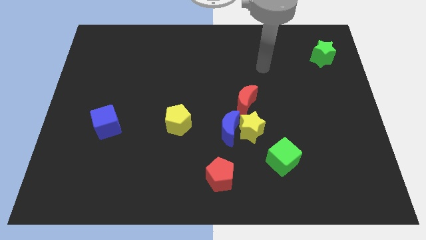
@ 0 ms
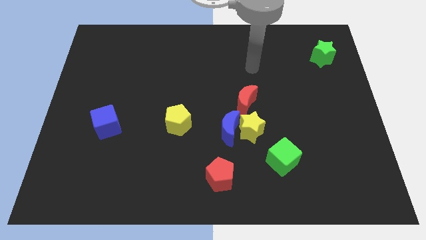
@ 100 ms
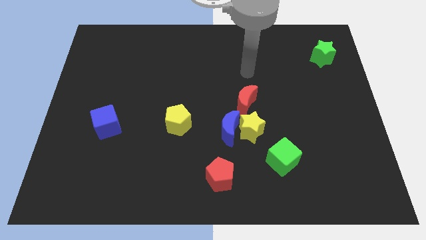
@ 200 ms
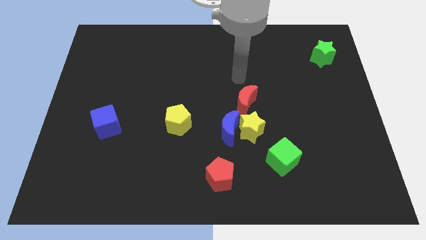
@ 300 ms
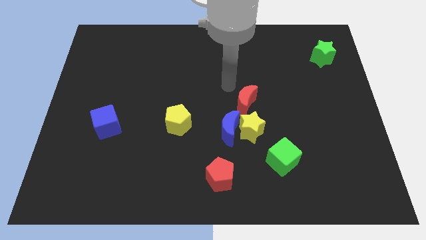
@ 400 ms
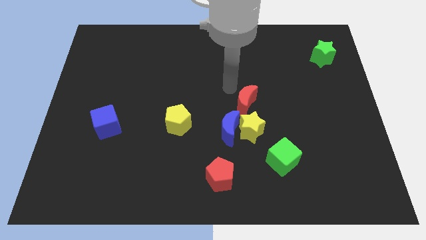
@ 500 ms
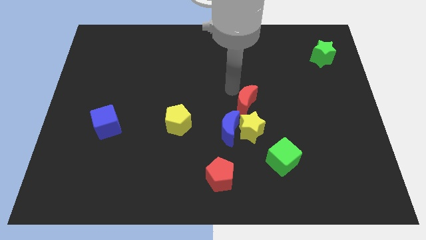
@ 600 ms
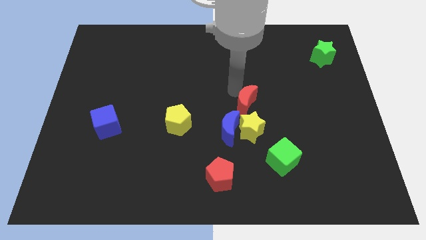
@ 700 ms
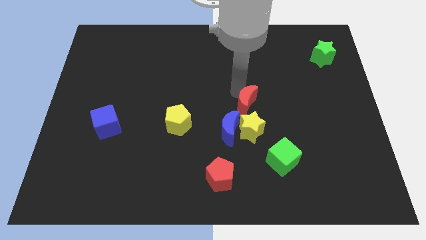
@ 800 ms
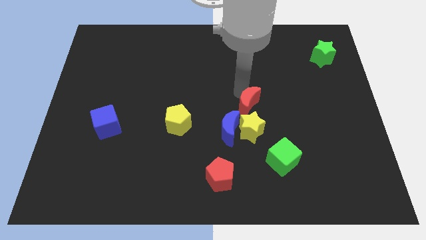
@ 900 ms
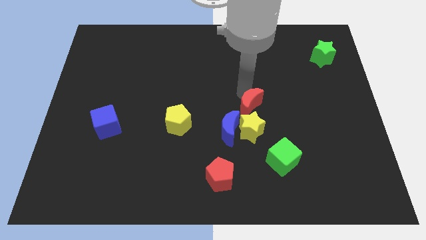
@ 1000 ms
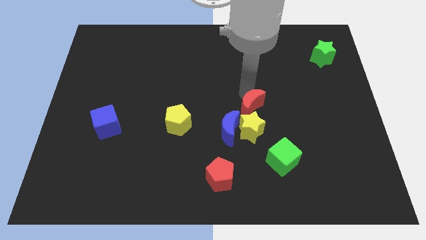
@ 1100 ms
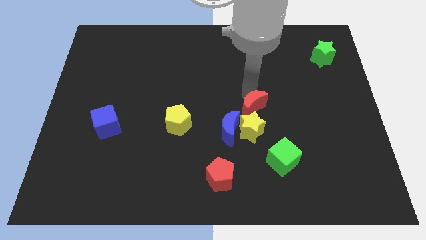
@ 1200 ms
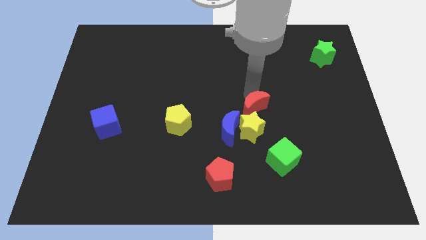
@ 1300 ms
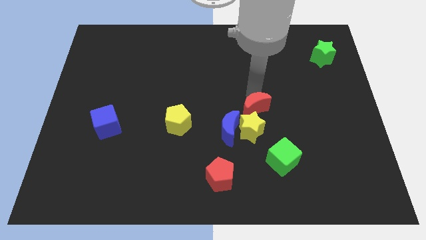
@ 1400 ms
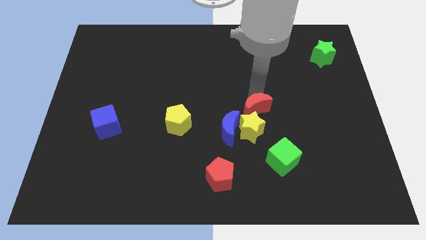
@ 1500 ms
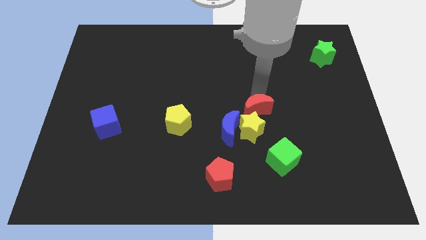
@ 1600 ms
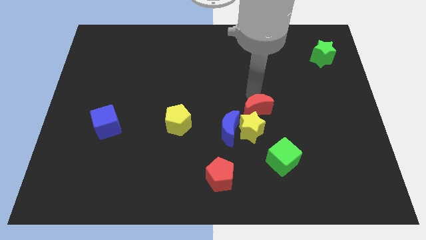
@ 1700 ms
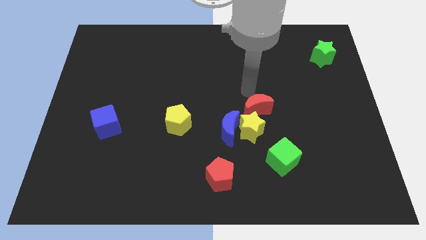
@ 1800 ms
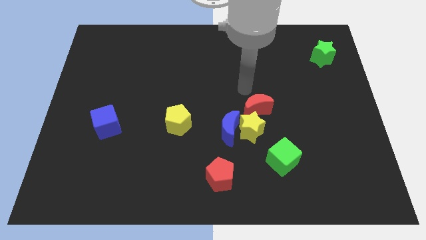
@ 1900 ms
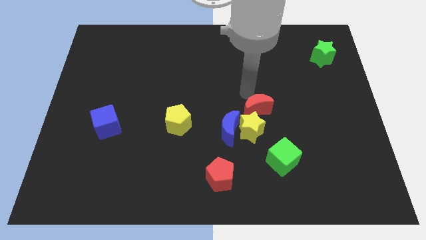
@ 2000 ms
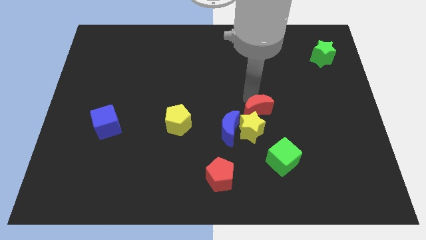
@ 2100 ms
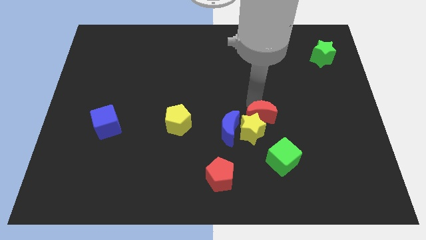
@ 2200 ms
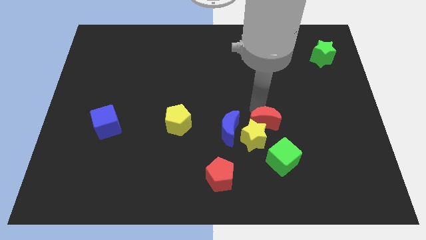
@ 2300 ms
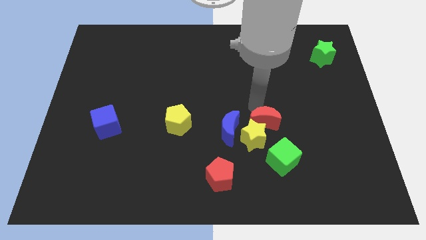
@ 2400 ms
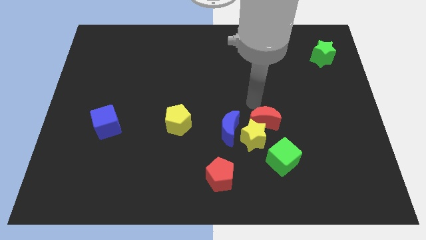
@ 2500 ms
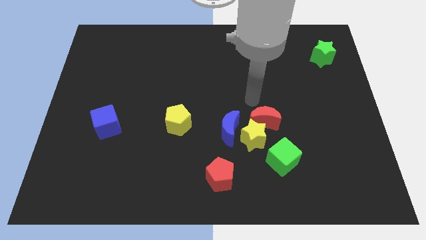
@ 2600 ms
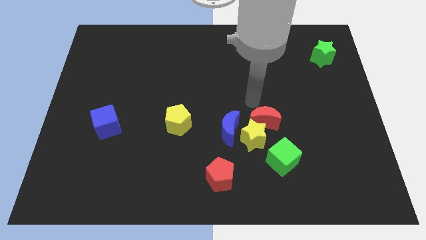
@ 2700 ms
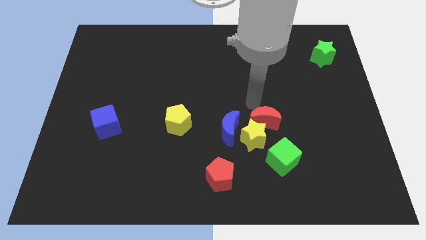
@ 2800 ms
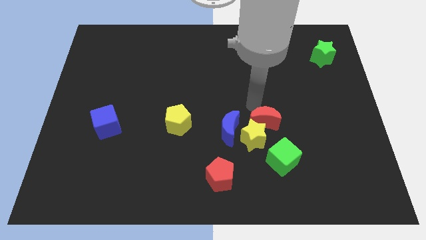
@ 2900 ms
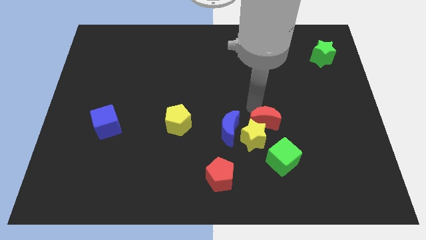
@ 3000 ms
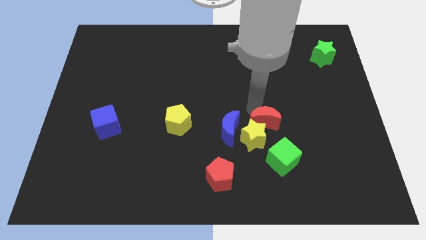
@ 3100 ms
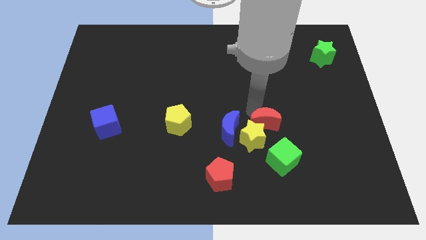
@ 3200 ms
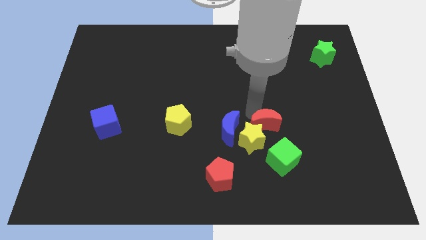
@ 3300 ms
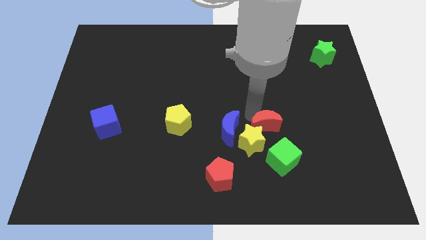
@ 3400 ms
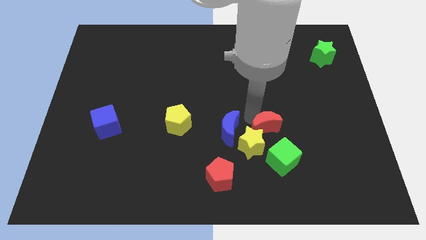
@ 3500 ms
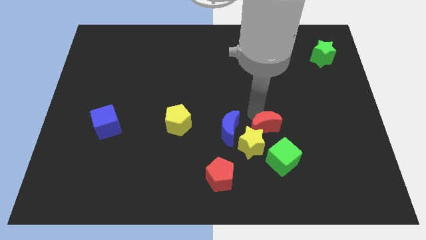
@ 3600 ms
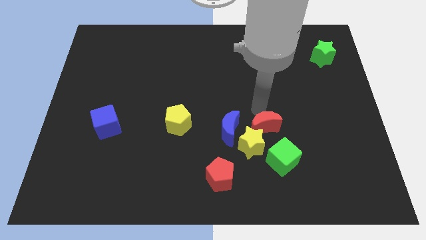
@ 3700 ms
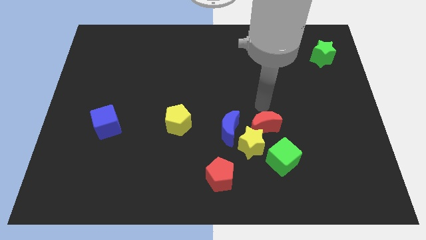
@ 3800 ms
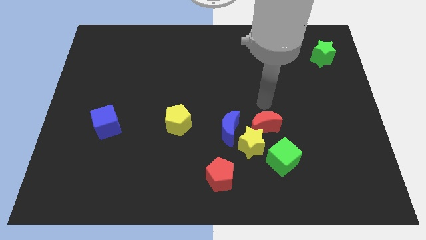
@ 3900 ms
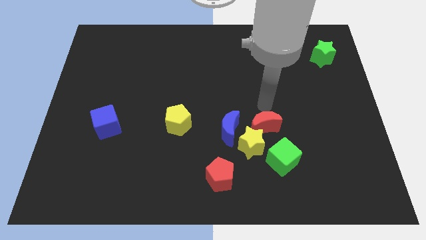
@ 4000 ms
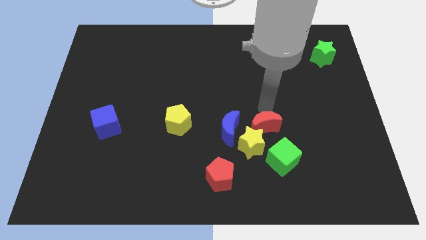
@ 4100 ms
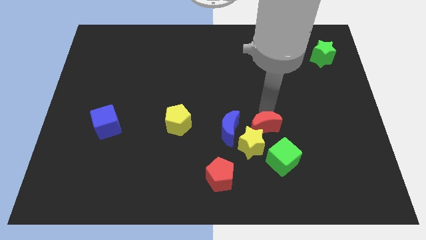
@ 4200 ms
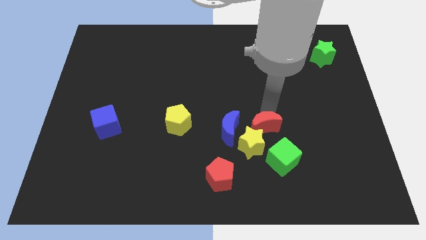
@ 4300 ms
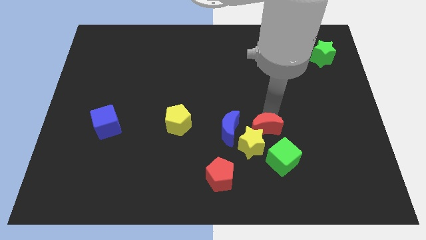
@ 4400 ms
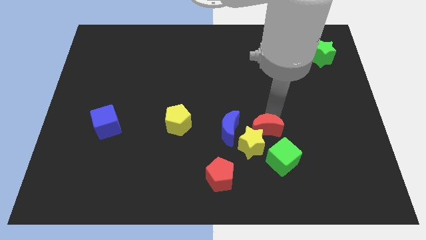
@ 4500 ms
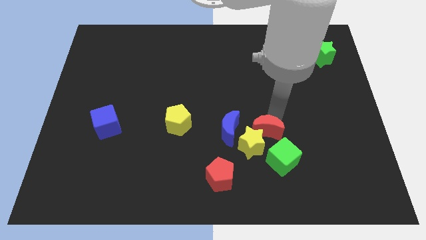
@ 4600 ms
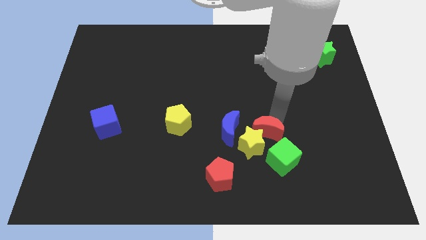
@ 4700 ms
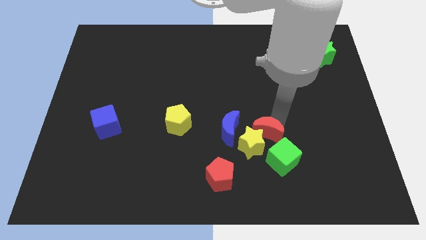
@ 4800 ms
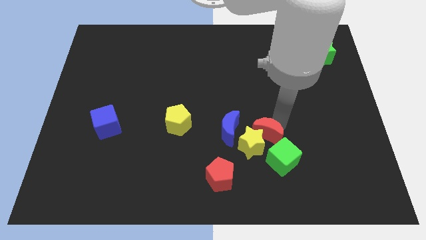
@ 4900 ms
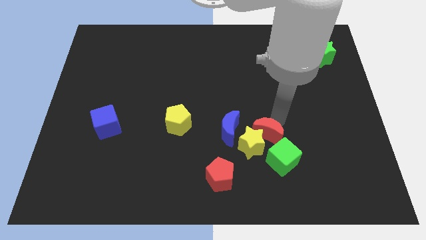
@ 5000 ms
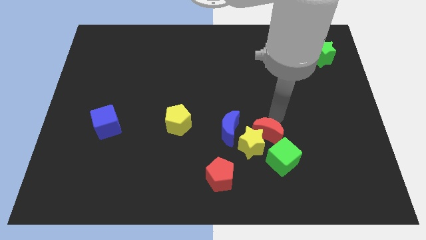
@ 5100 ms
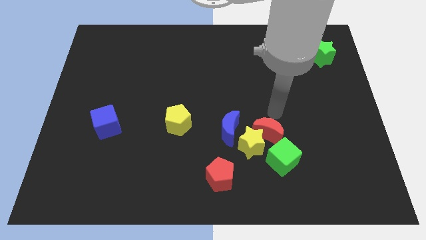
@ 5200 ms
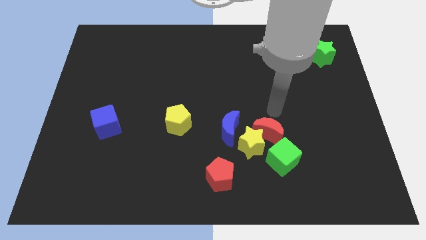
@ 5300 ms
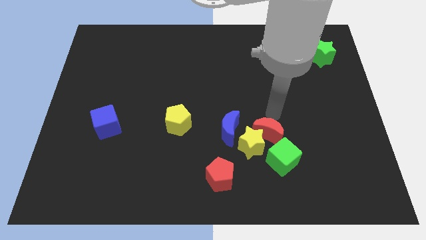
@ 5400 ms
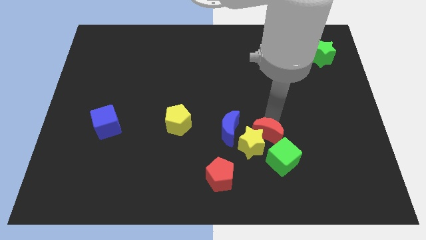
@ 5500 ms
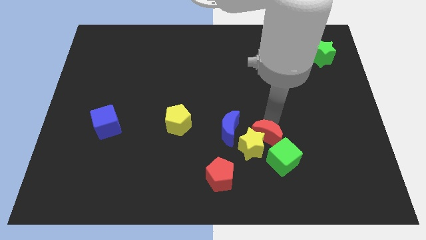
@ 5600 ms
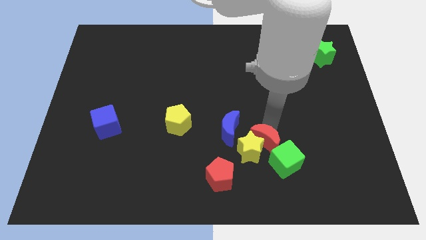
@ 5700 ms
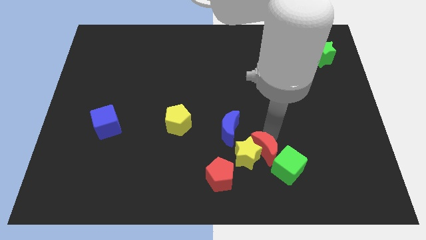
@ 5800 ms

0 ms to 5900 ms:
push the red moon to the left of the green cube

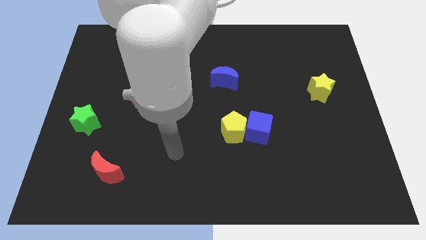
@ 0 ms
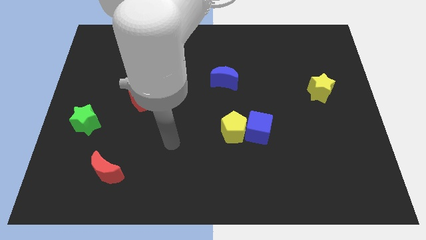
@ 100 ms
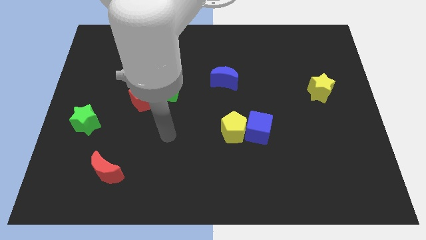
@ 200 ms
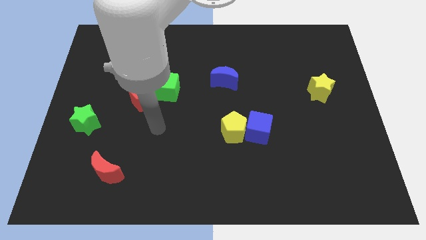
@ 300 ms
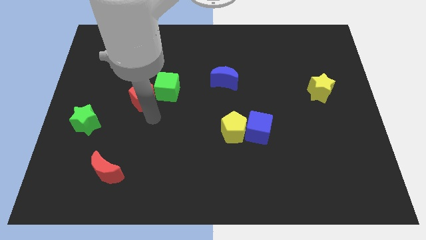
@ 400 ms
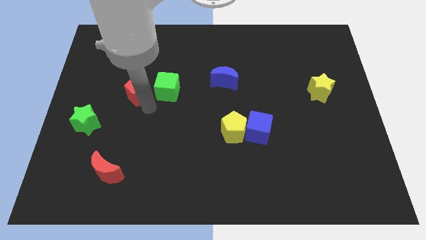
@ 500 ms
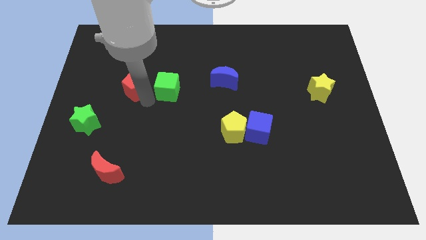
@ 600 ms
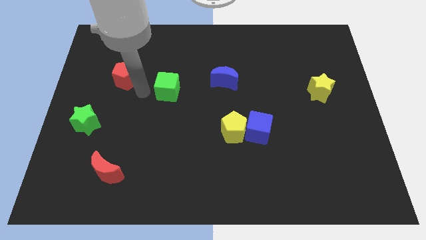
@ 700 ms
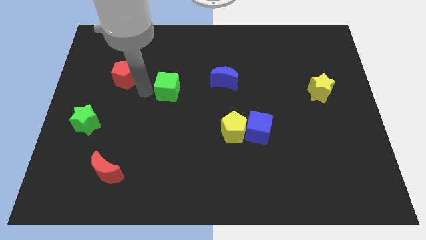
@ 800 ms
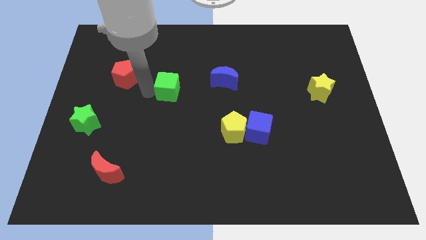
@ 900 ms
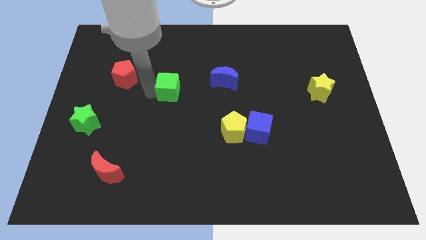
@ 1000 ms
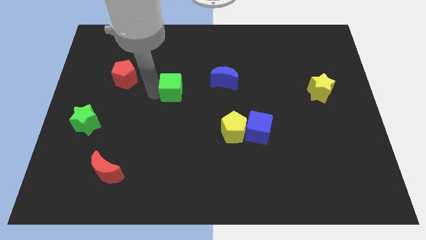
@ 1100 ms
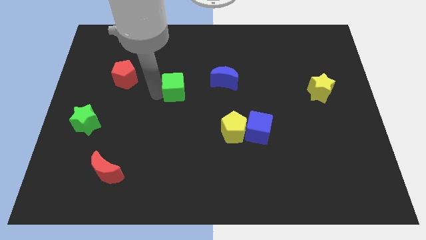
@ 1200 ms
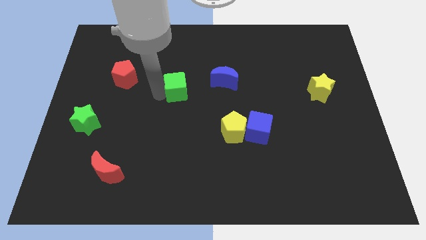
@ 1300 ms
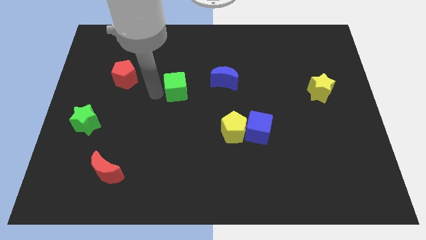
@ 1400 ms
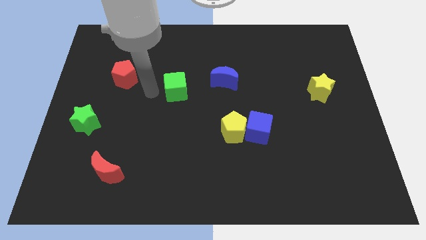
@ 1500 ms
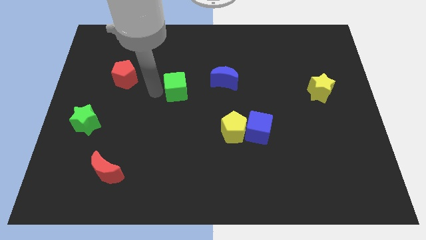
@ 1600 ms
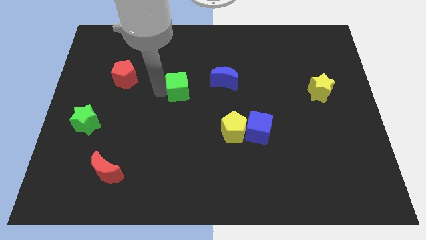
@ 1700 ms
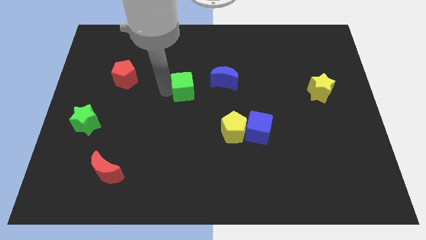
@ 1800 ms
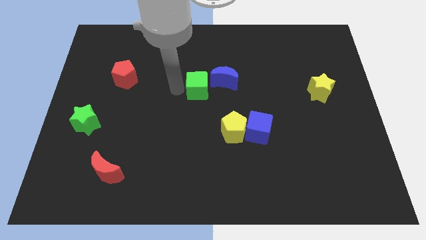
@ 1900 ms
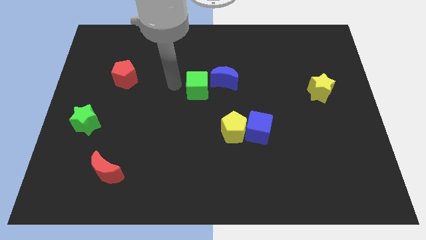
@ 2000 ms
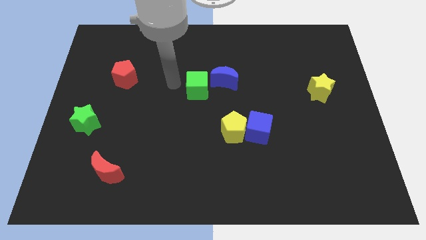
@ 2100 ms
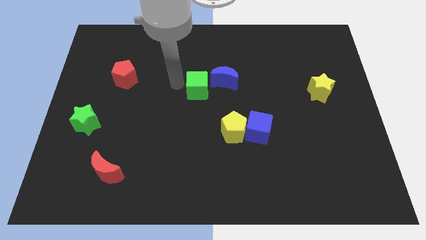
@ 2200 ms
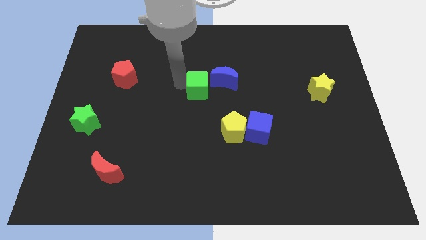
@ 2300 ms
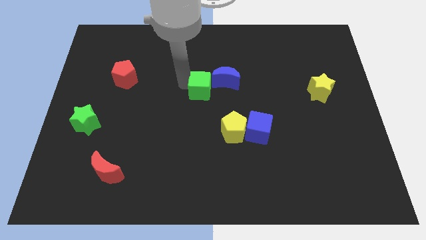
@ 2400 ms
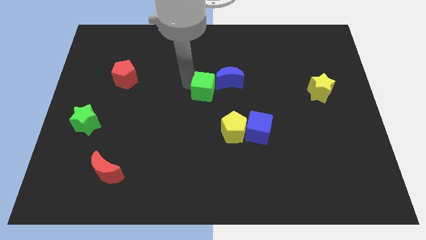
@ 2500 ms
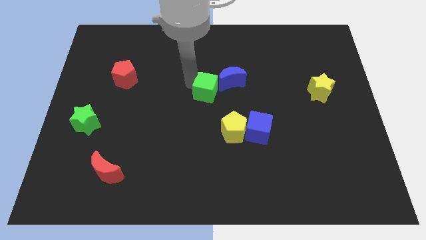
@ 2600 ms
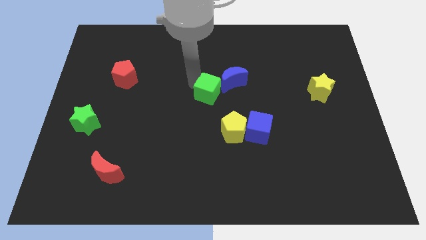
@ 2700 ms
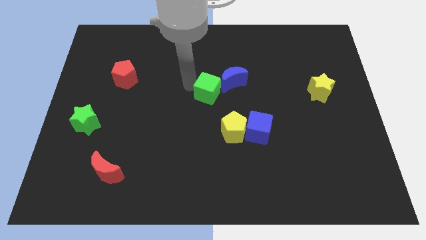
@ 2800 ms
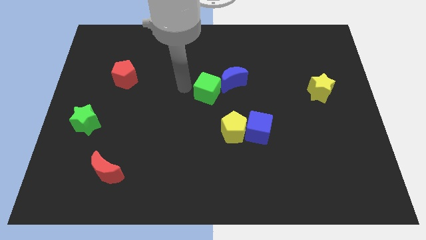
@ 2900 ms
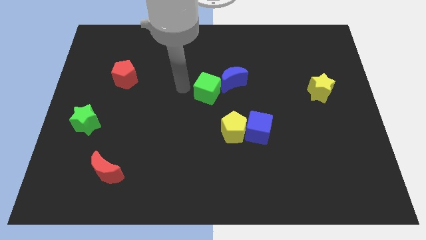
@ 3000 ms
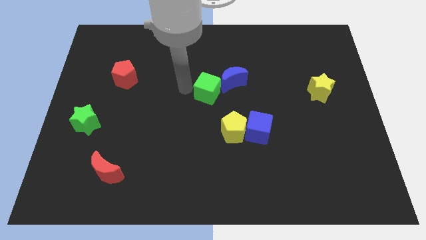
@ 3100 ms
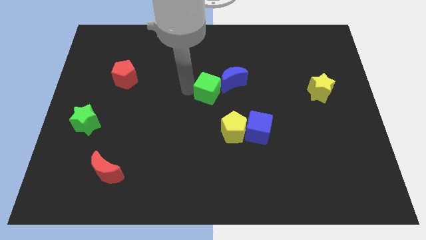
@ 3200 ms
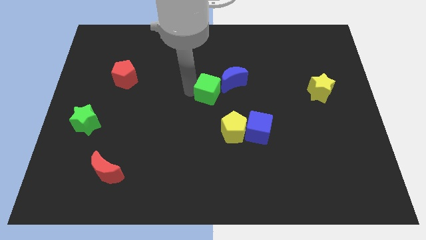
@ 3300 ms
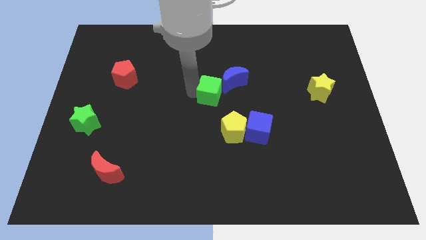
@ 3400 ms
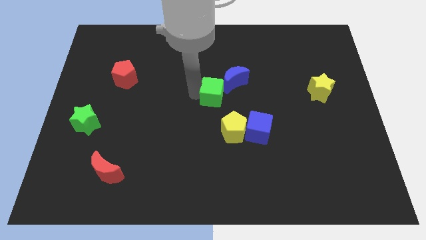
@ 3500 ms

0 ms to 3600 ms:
push the green cube to the top side of the yellow pentagon
